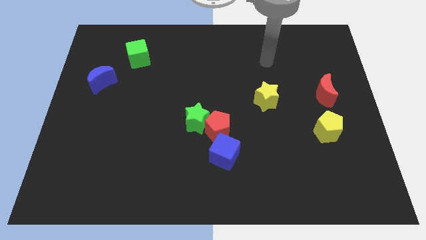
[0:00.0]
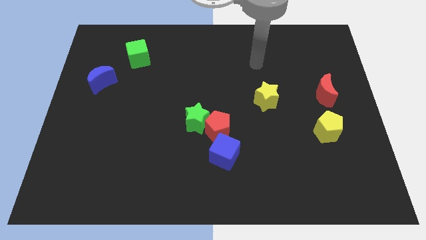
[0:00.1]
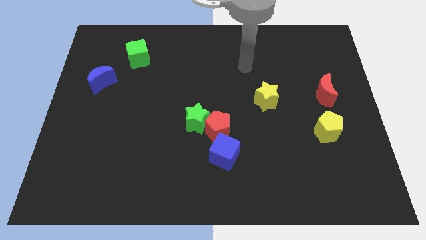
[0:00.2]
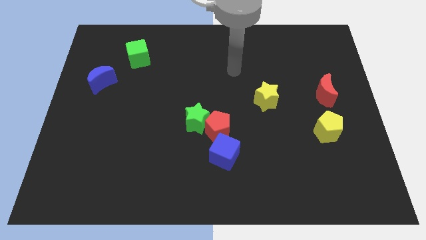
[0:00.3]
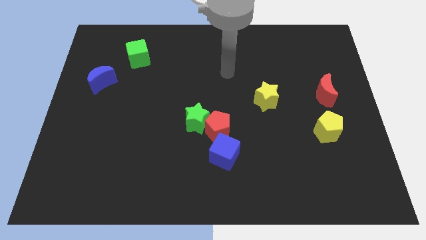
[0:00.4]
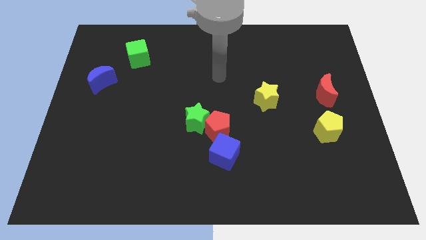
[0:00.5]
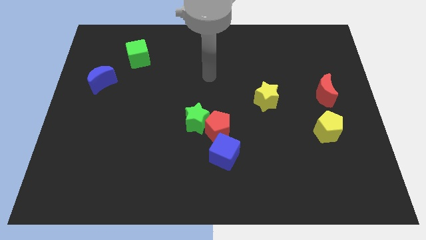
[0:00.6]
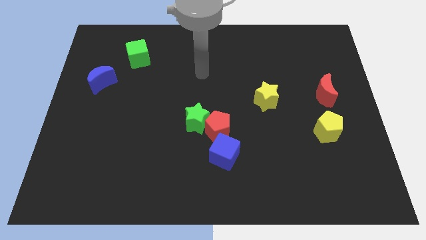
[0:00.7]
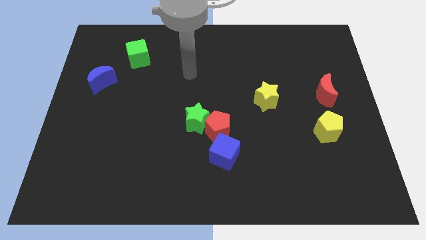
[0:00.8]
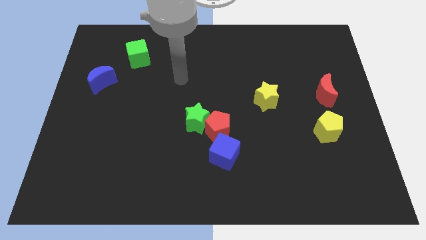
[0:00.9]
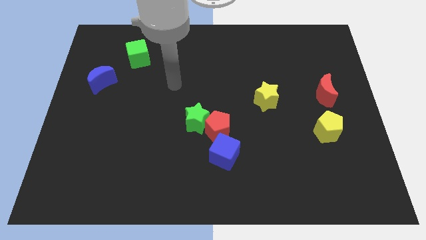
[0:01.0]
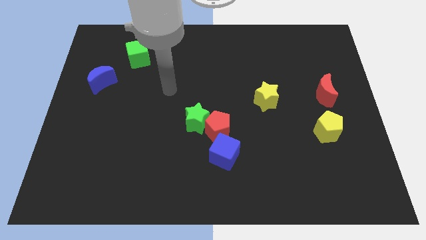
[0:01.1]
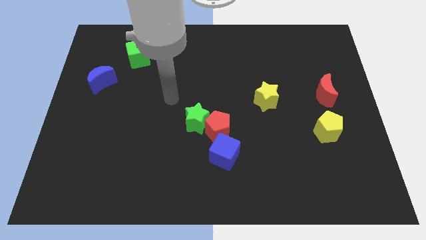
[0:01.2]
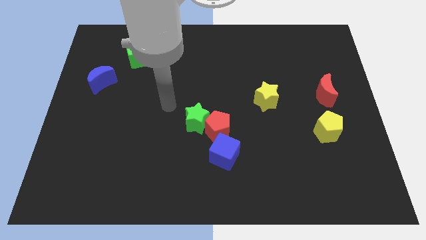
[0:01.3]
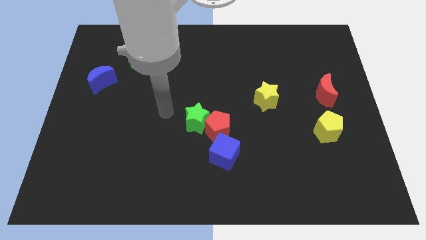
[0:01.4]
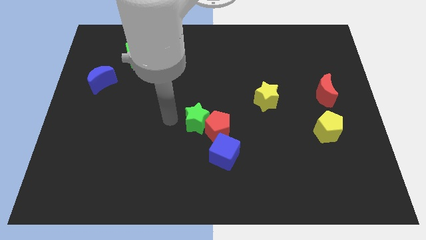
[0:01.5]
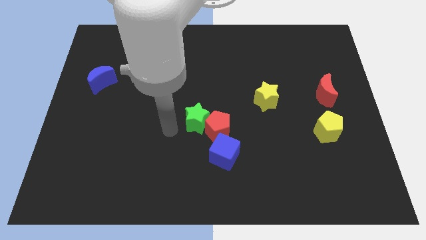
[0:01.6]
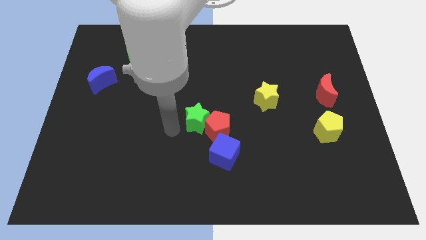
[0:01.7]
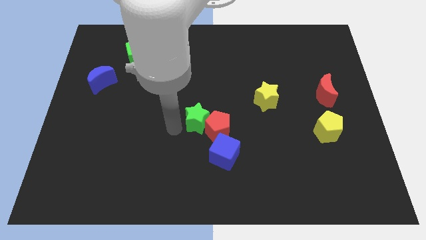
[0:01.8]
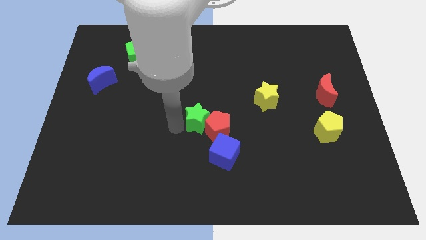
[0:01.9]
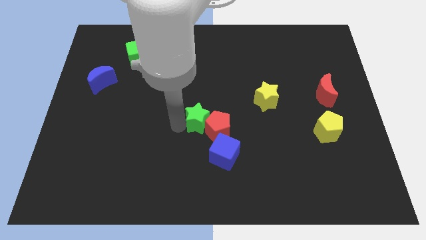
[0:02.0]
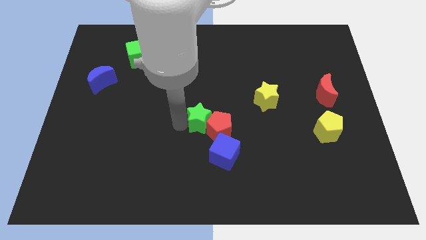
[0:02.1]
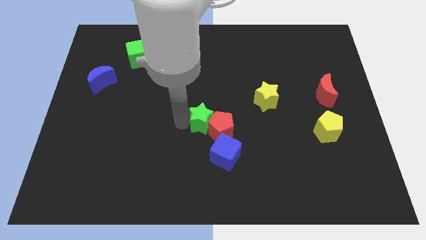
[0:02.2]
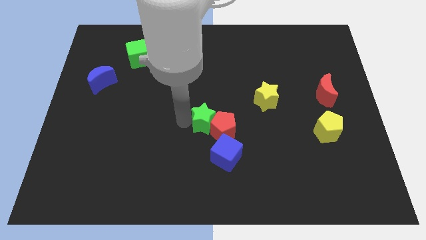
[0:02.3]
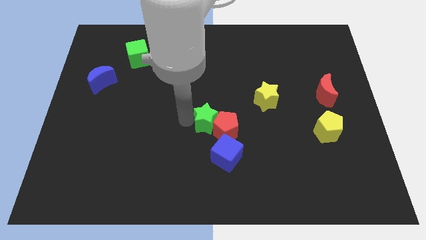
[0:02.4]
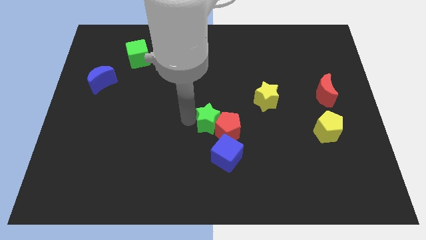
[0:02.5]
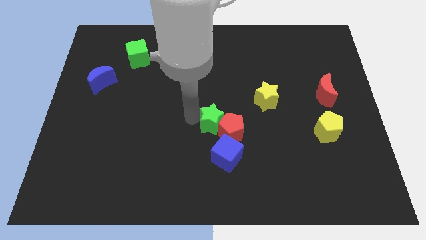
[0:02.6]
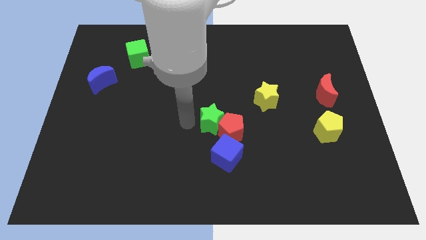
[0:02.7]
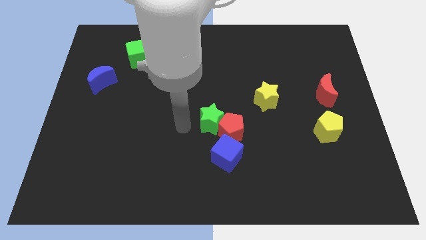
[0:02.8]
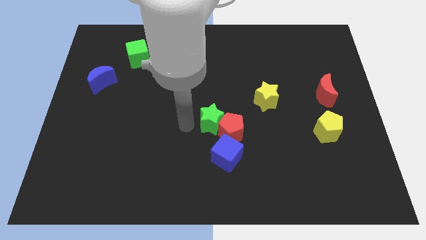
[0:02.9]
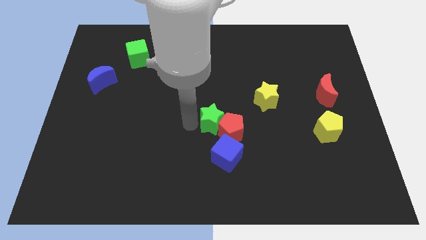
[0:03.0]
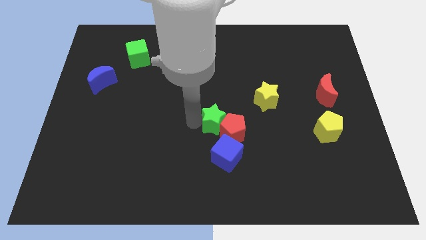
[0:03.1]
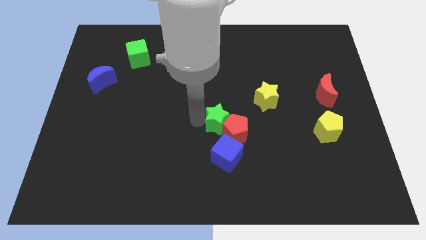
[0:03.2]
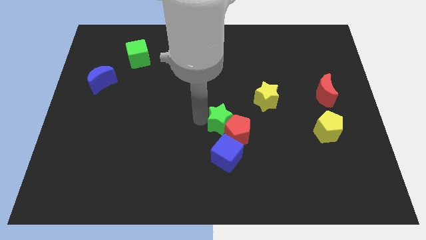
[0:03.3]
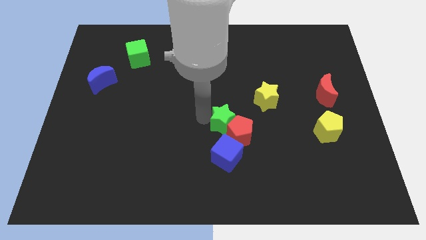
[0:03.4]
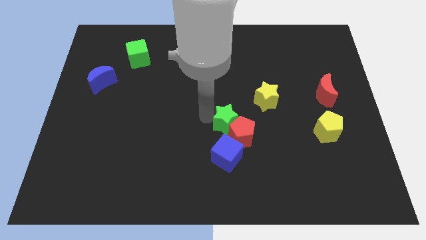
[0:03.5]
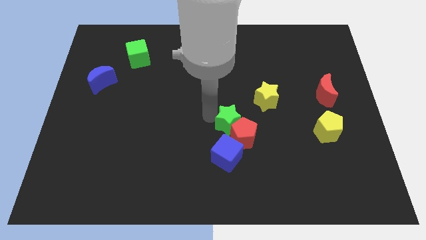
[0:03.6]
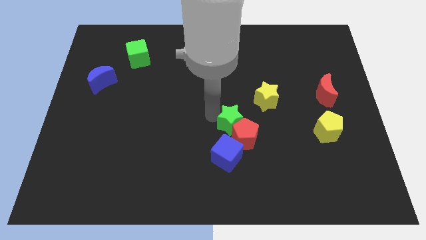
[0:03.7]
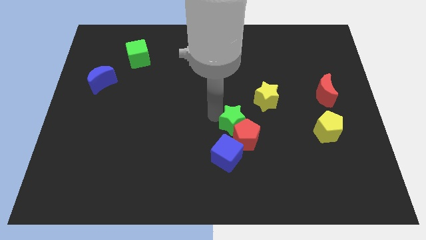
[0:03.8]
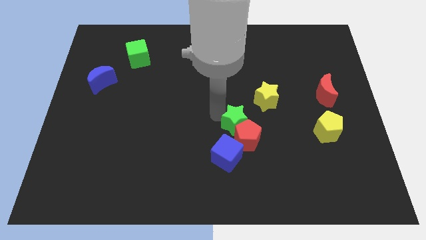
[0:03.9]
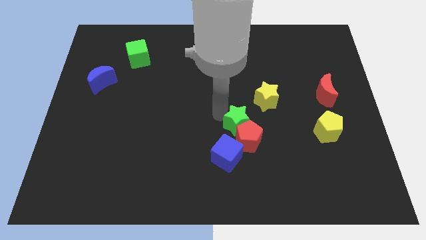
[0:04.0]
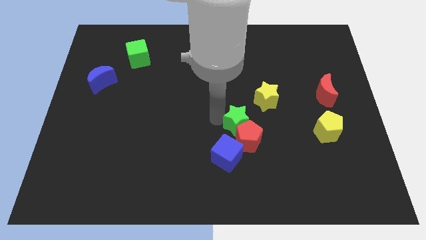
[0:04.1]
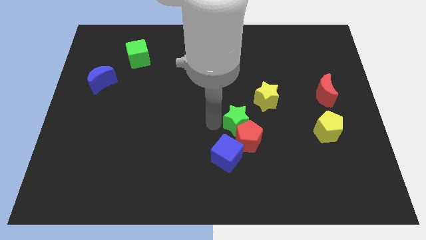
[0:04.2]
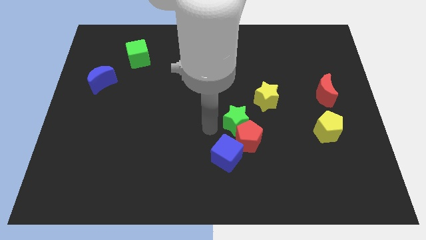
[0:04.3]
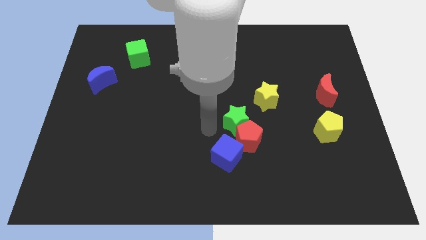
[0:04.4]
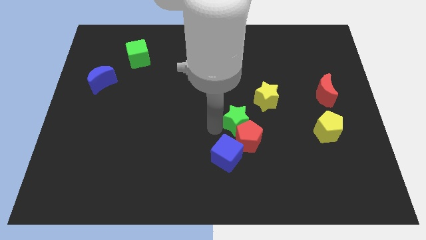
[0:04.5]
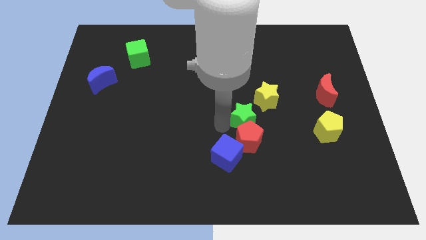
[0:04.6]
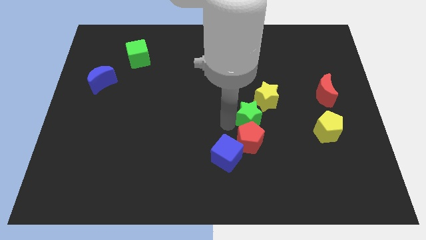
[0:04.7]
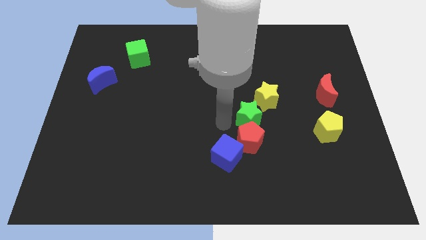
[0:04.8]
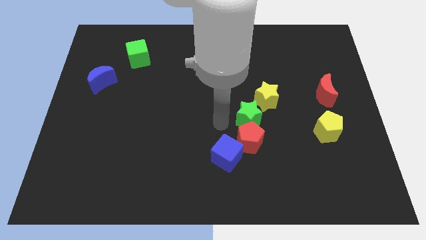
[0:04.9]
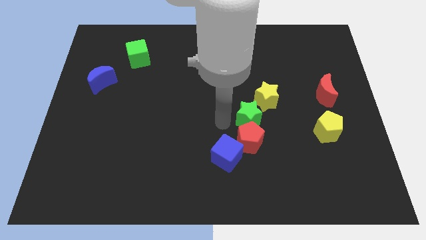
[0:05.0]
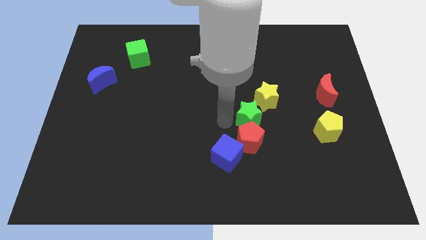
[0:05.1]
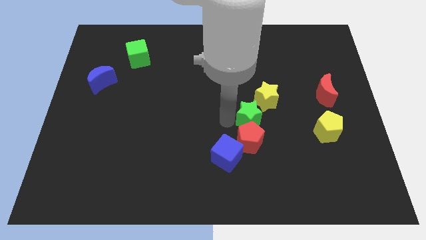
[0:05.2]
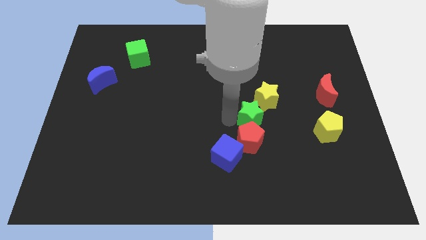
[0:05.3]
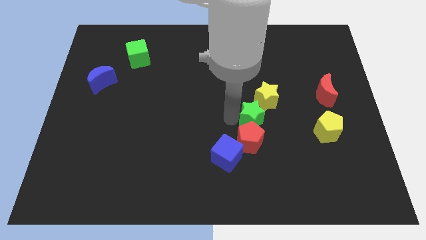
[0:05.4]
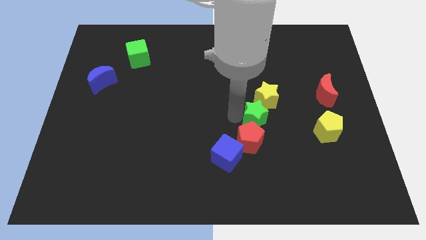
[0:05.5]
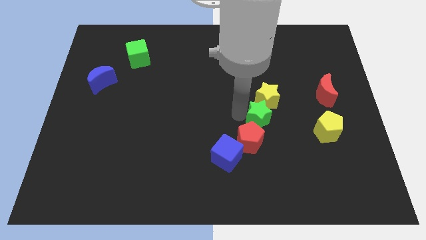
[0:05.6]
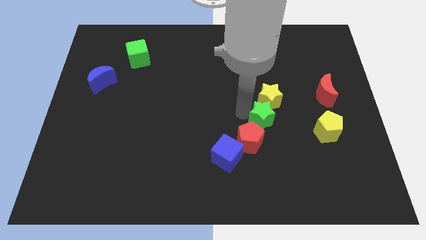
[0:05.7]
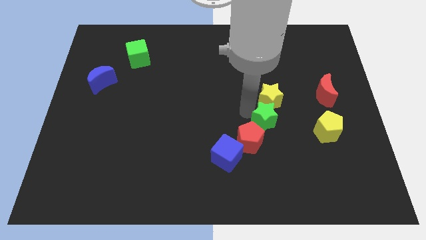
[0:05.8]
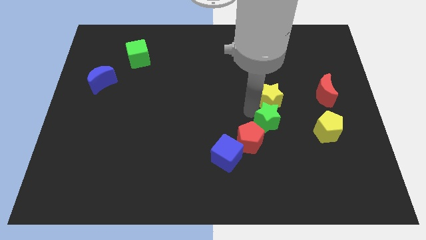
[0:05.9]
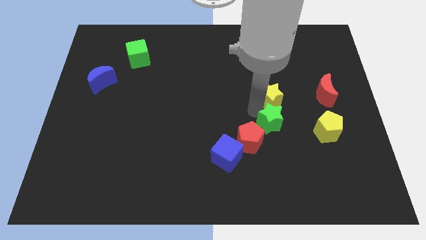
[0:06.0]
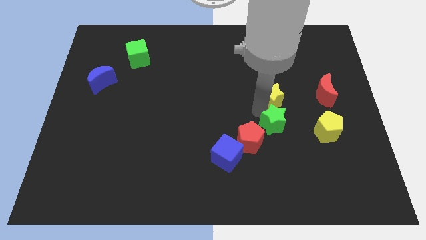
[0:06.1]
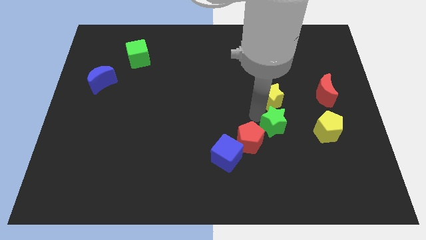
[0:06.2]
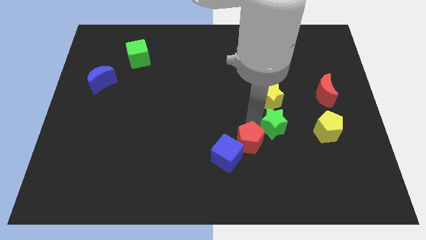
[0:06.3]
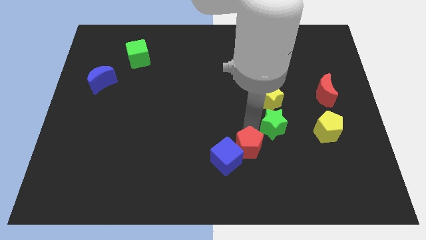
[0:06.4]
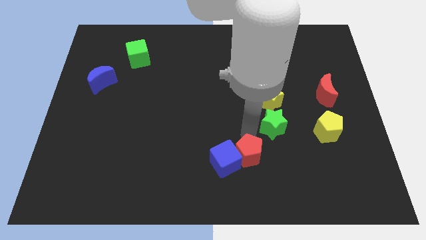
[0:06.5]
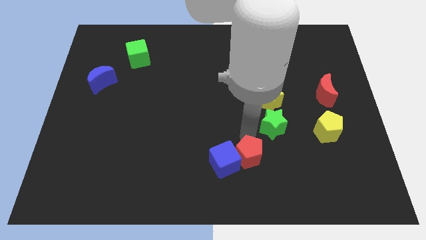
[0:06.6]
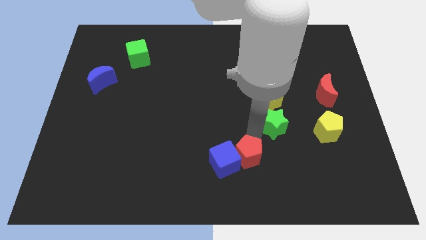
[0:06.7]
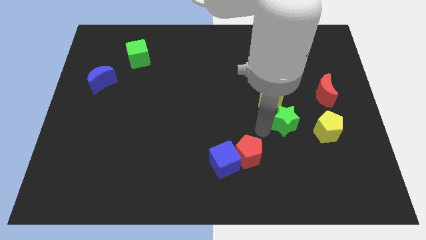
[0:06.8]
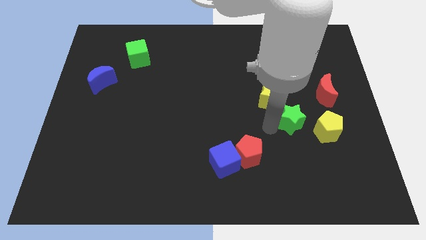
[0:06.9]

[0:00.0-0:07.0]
push the green star to the top left side of the yellow pentagon
